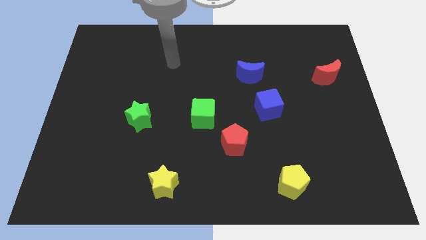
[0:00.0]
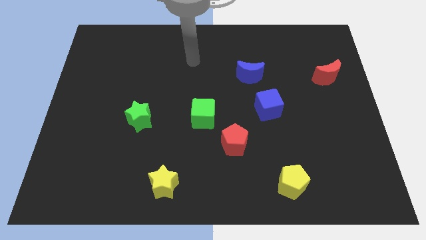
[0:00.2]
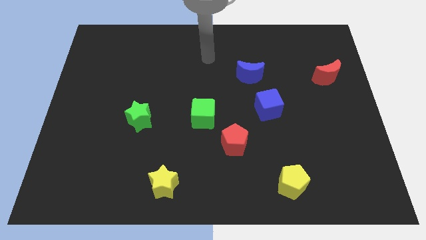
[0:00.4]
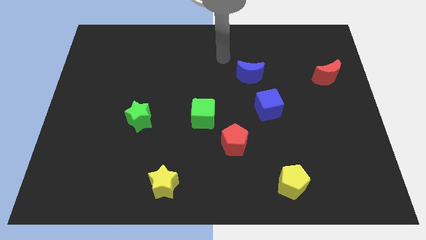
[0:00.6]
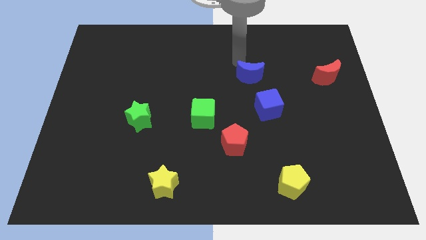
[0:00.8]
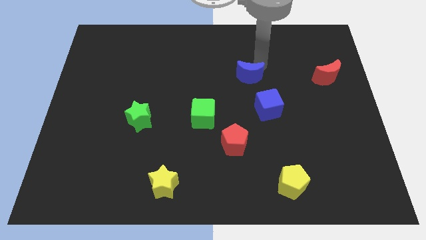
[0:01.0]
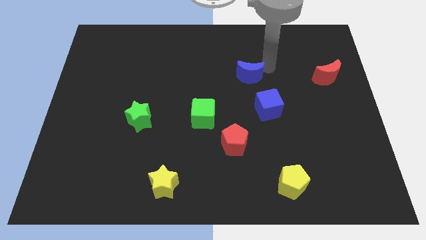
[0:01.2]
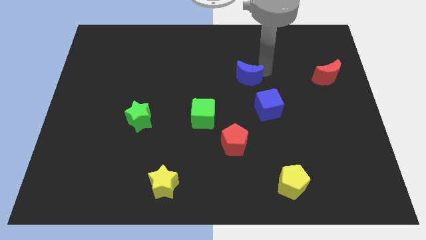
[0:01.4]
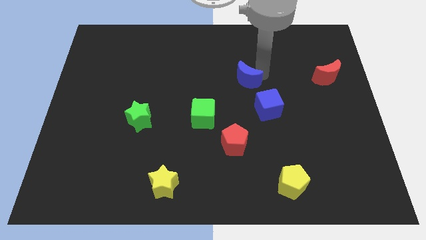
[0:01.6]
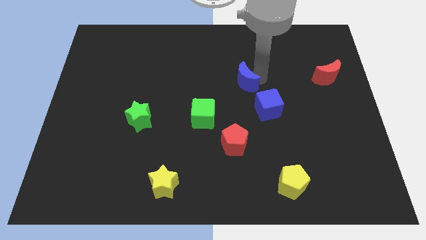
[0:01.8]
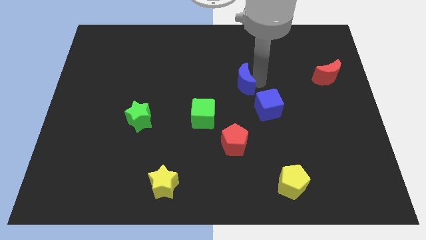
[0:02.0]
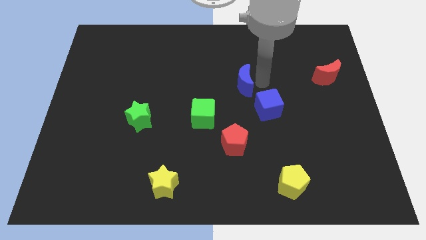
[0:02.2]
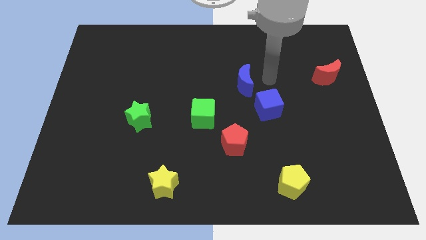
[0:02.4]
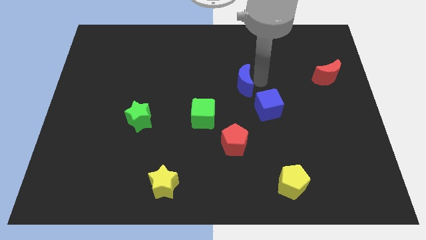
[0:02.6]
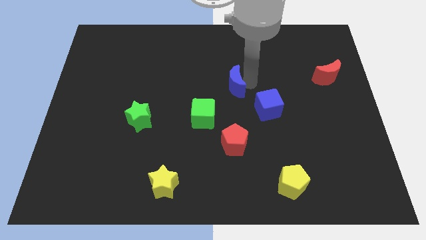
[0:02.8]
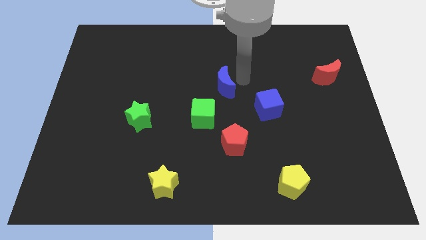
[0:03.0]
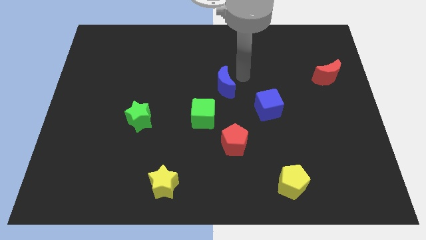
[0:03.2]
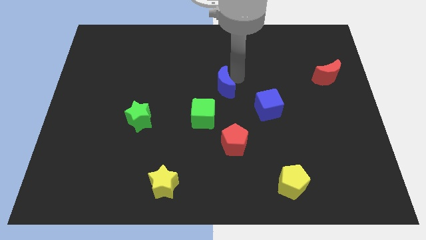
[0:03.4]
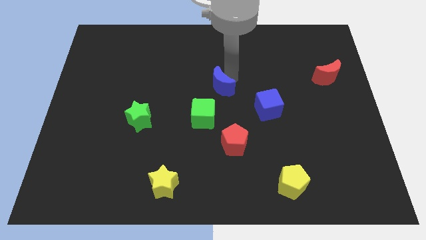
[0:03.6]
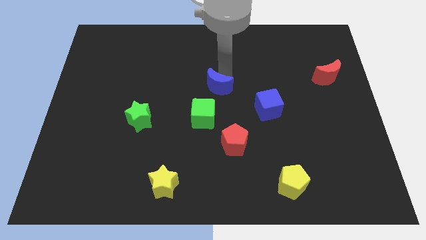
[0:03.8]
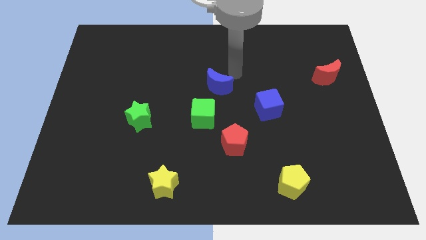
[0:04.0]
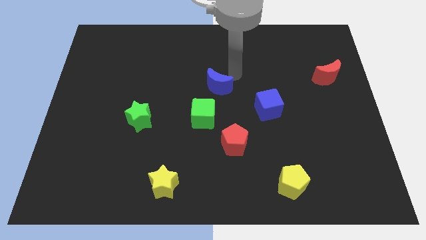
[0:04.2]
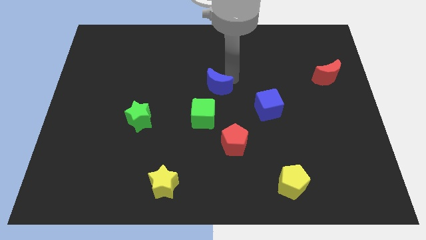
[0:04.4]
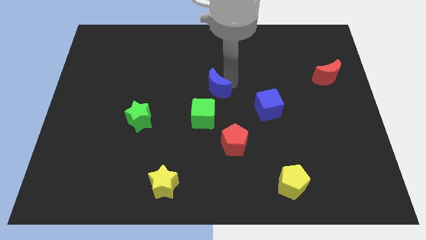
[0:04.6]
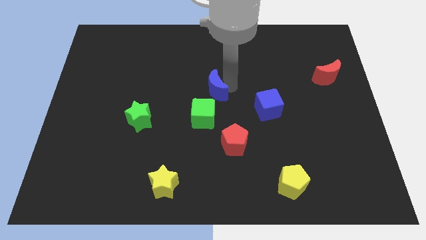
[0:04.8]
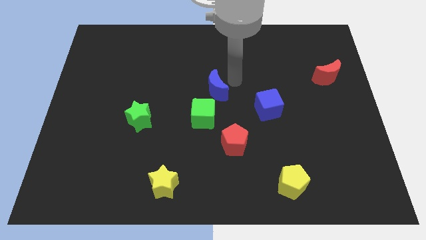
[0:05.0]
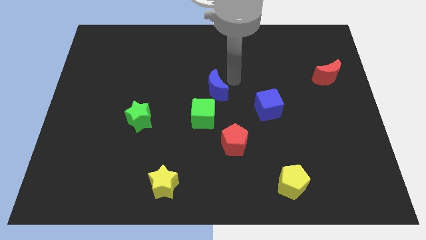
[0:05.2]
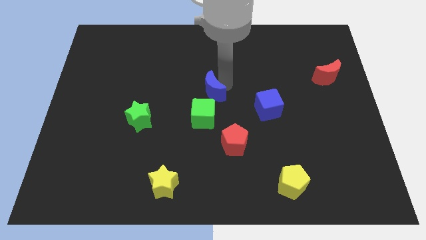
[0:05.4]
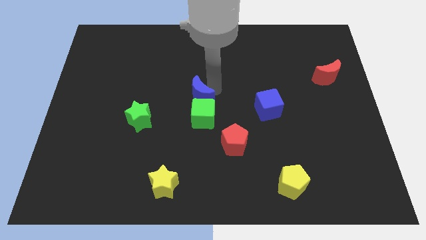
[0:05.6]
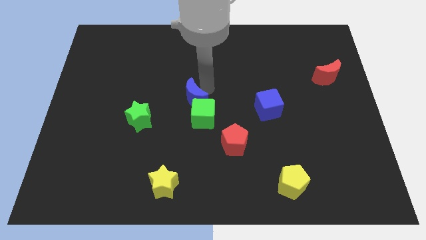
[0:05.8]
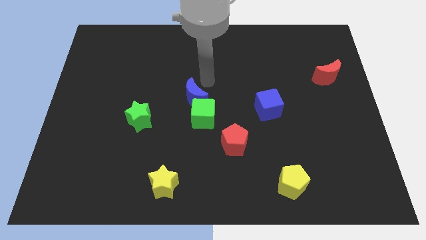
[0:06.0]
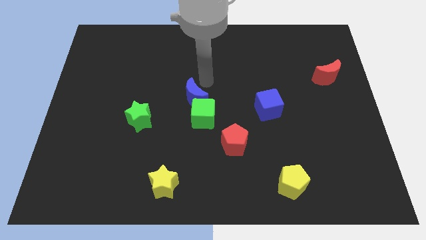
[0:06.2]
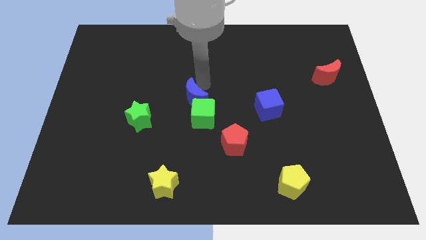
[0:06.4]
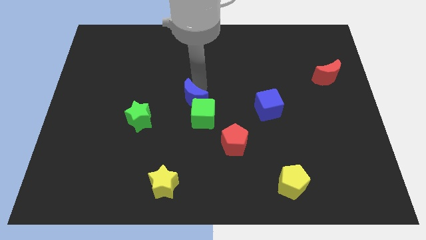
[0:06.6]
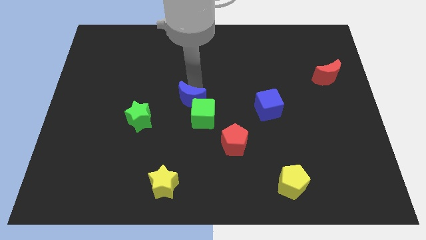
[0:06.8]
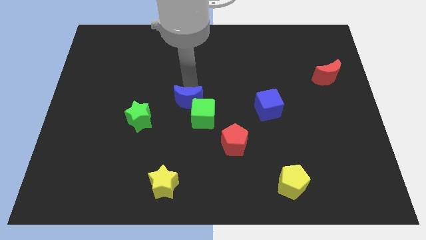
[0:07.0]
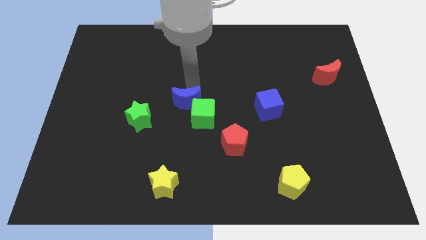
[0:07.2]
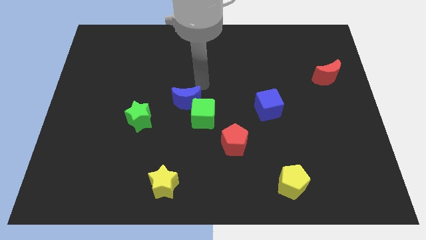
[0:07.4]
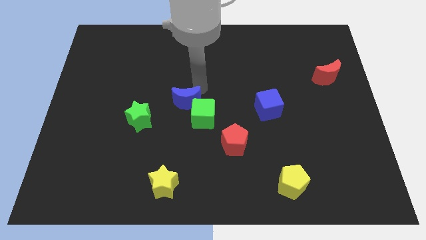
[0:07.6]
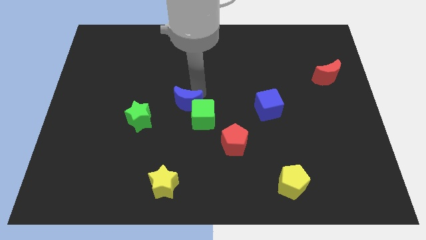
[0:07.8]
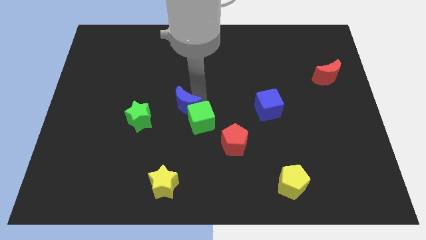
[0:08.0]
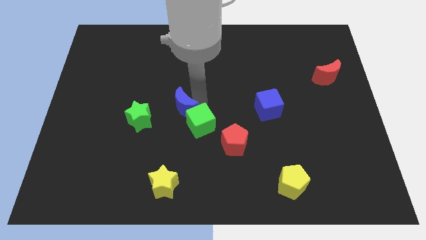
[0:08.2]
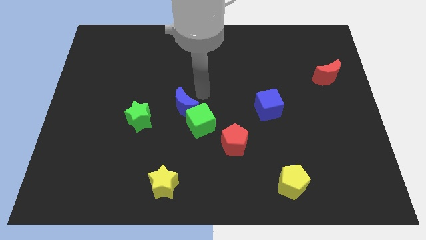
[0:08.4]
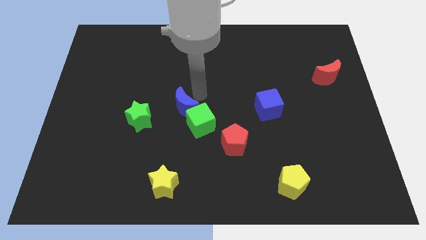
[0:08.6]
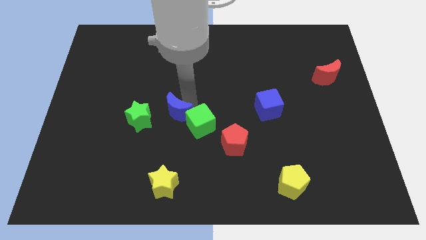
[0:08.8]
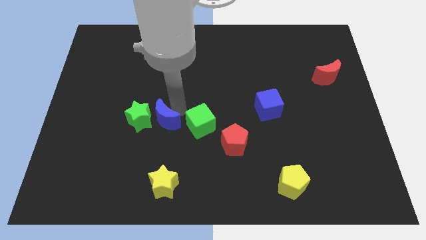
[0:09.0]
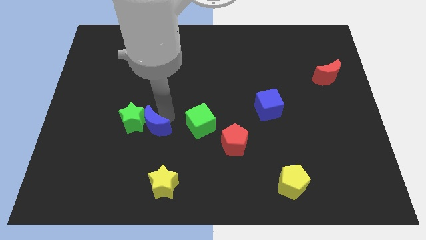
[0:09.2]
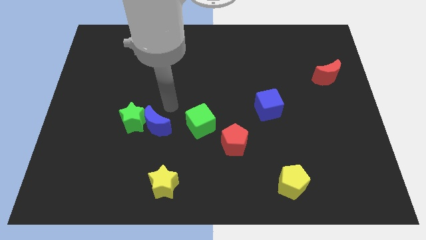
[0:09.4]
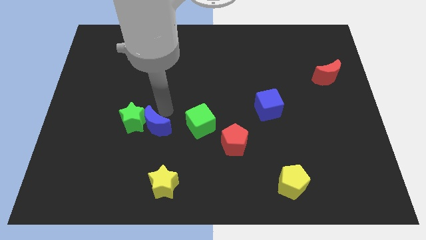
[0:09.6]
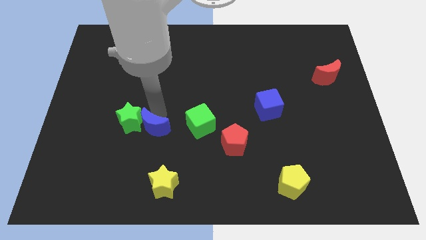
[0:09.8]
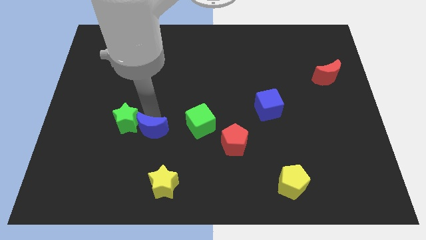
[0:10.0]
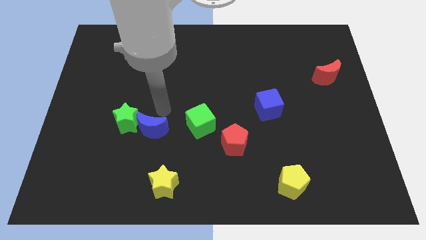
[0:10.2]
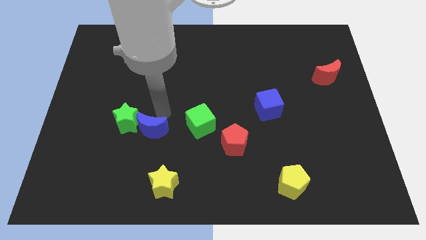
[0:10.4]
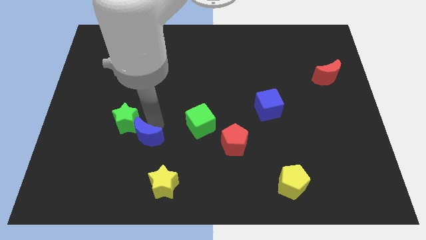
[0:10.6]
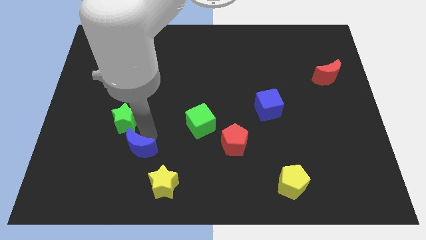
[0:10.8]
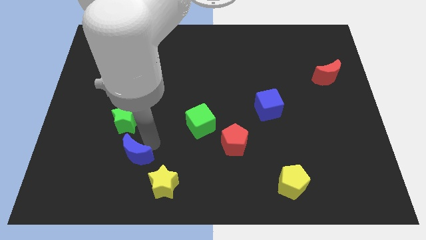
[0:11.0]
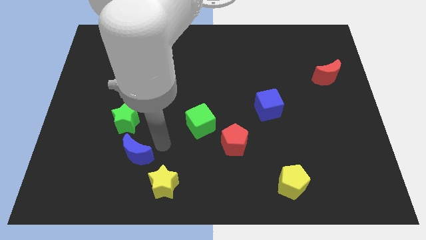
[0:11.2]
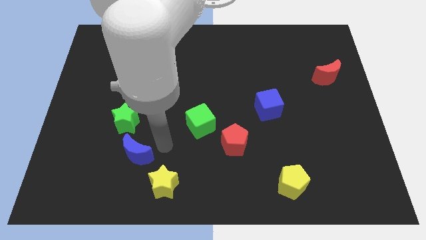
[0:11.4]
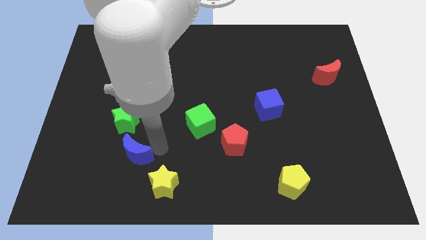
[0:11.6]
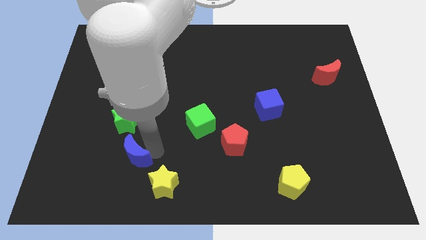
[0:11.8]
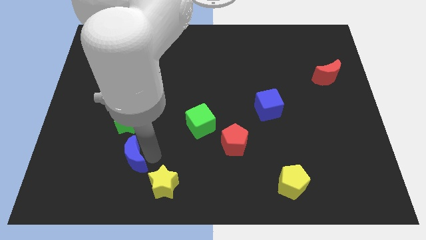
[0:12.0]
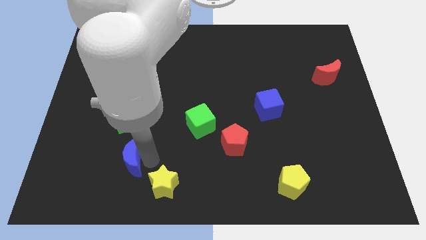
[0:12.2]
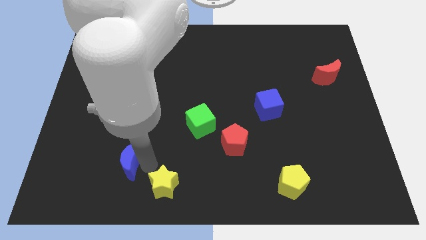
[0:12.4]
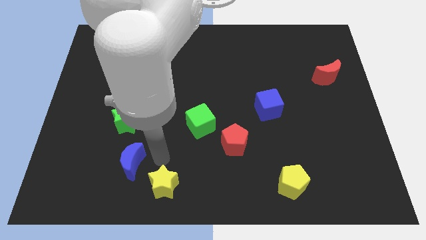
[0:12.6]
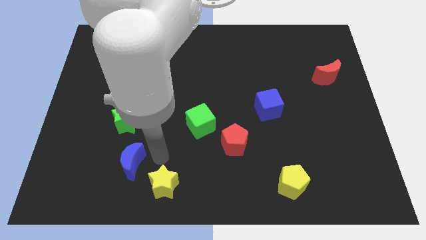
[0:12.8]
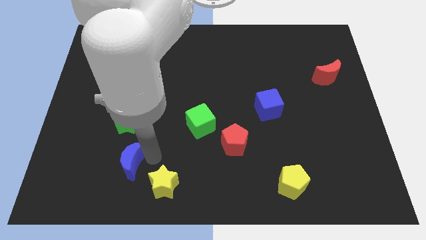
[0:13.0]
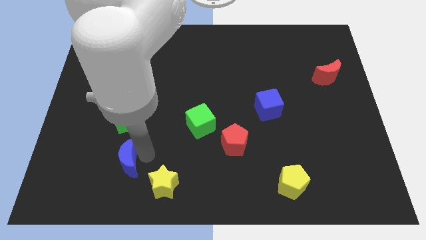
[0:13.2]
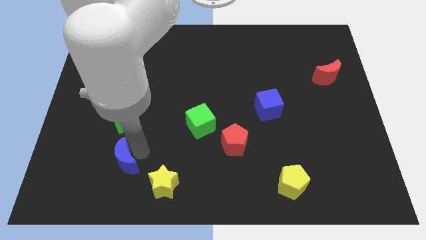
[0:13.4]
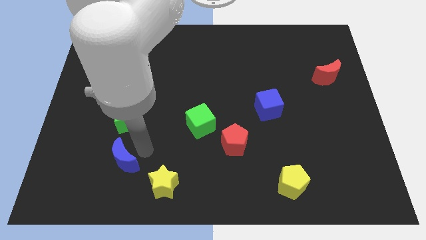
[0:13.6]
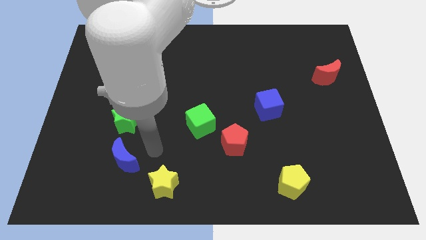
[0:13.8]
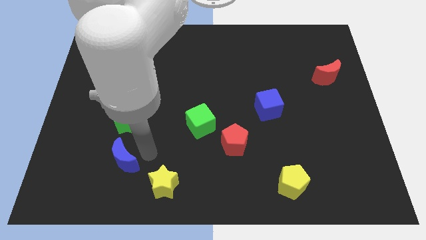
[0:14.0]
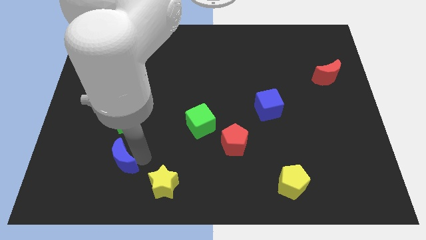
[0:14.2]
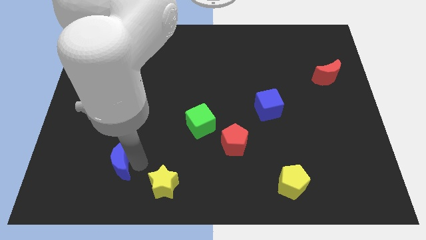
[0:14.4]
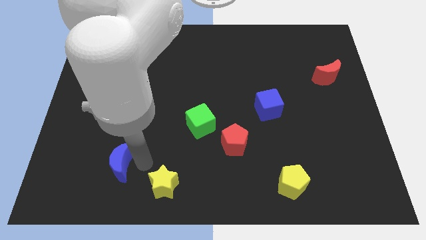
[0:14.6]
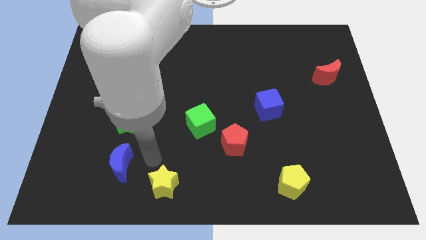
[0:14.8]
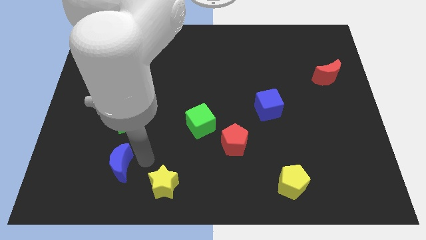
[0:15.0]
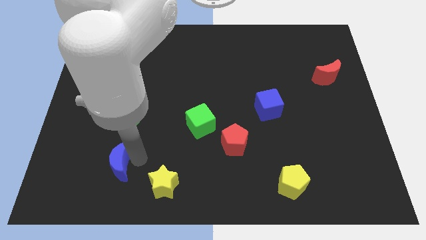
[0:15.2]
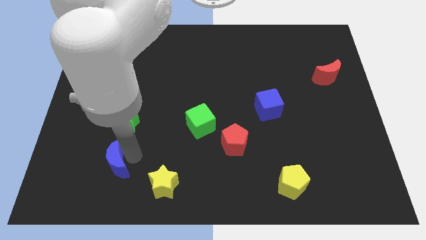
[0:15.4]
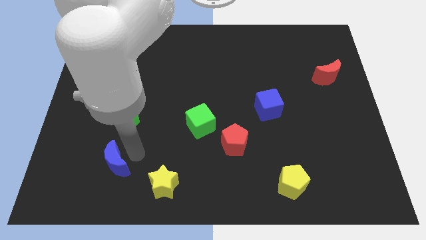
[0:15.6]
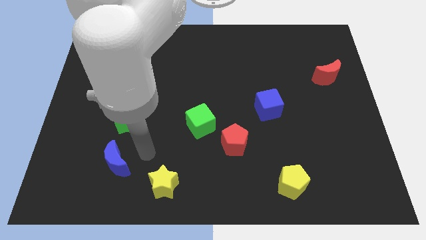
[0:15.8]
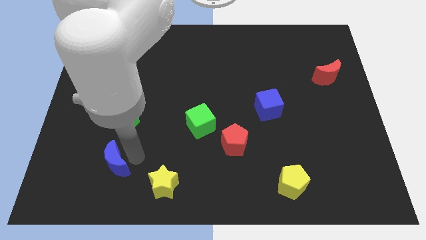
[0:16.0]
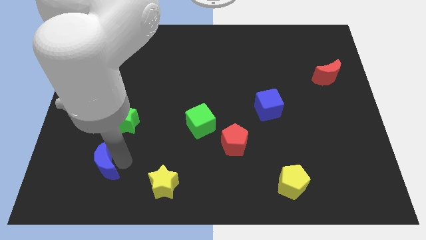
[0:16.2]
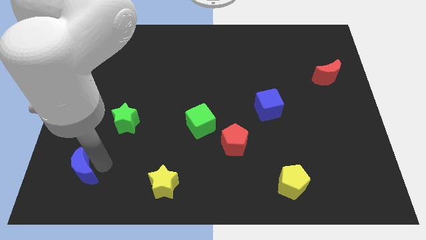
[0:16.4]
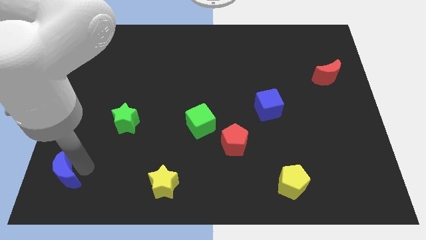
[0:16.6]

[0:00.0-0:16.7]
move the blue moon to the bottom left of the board
